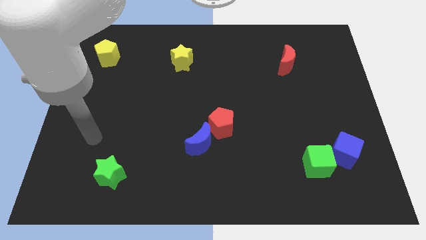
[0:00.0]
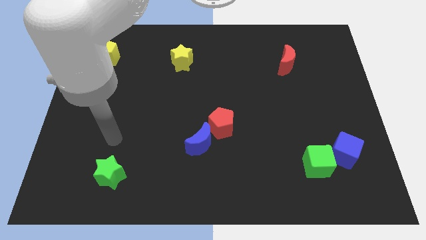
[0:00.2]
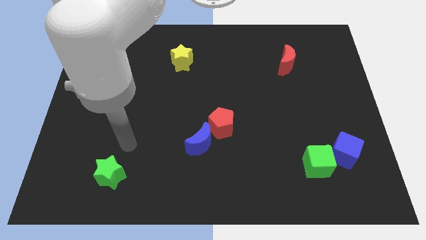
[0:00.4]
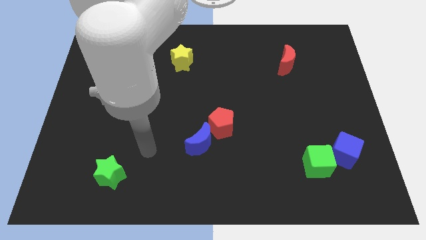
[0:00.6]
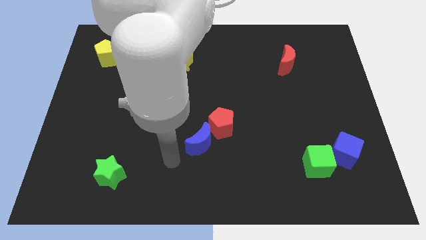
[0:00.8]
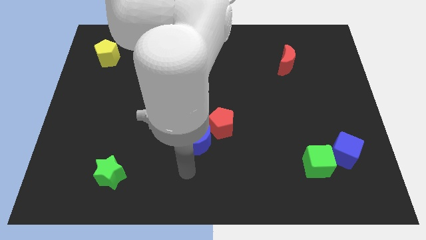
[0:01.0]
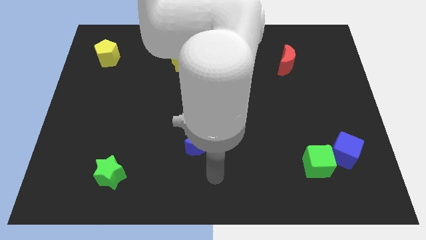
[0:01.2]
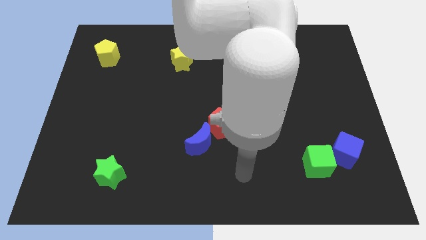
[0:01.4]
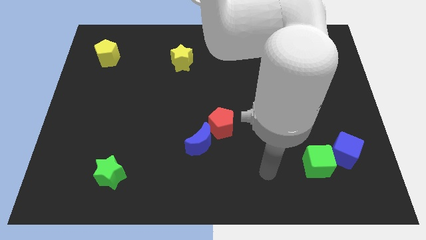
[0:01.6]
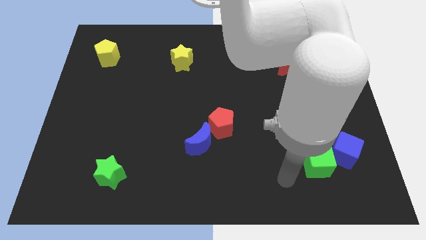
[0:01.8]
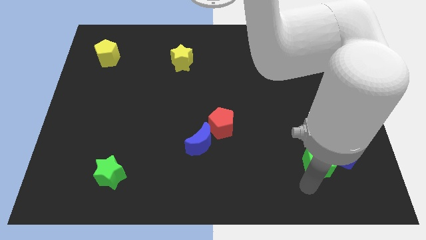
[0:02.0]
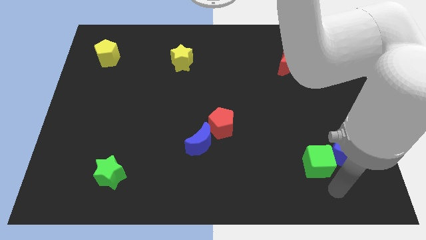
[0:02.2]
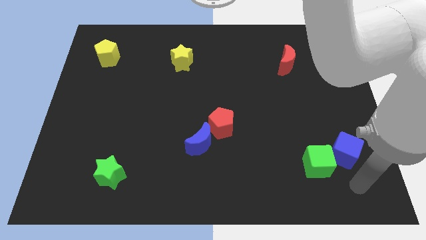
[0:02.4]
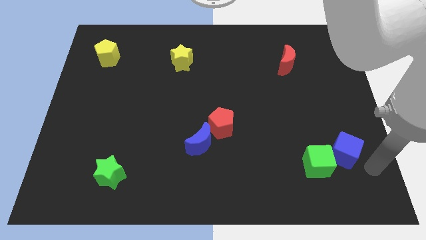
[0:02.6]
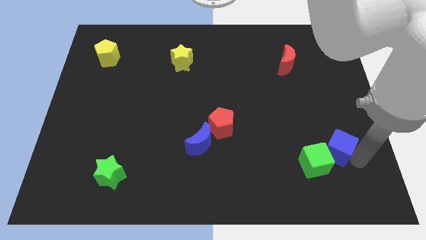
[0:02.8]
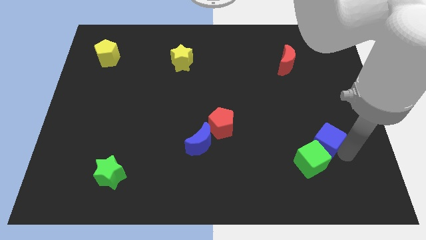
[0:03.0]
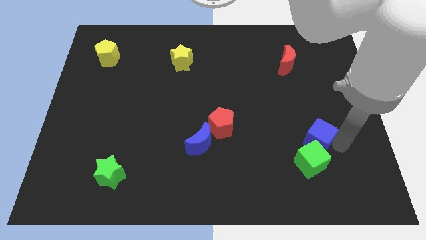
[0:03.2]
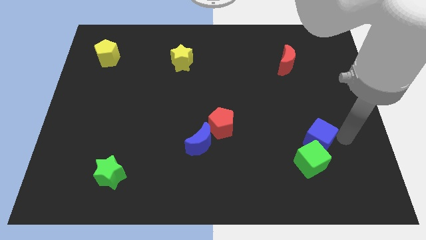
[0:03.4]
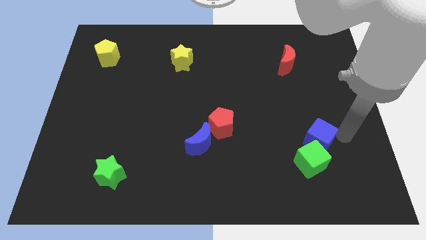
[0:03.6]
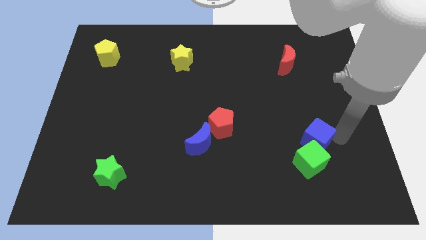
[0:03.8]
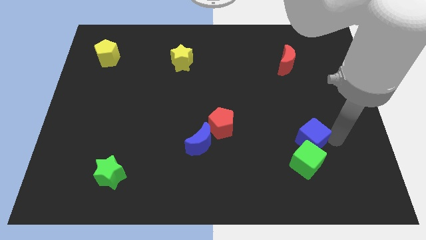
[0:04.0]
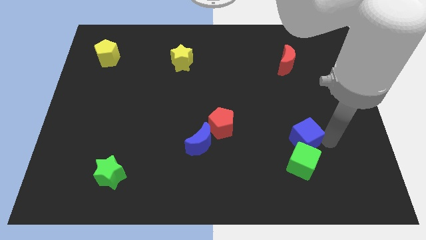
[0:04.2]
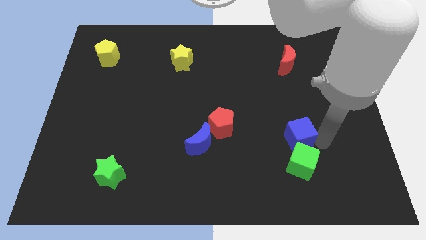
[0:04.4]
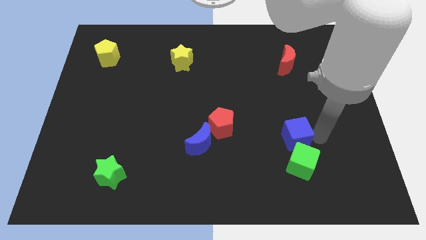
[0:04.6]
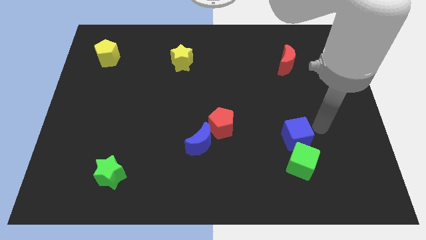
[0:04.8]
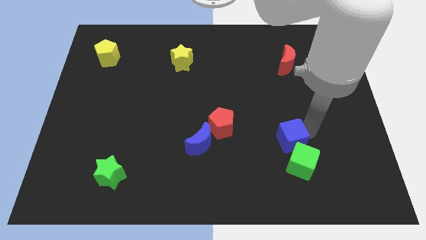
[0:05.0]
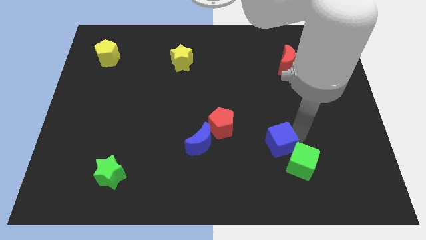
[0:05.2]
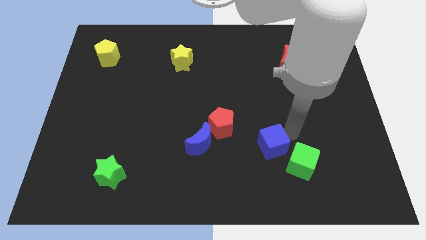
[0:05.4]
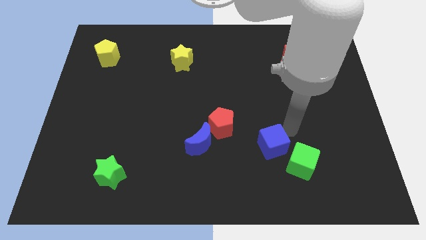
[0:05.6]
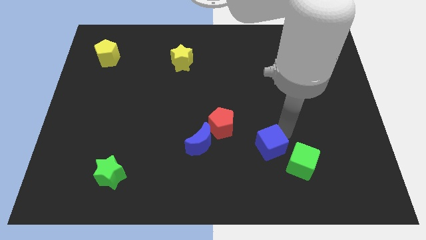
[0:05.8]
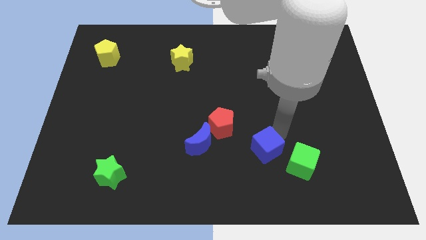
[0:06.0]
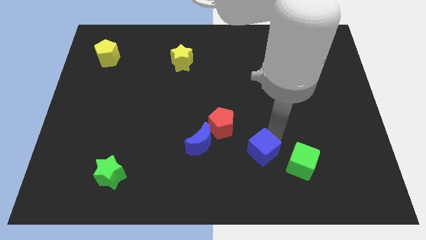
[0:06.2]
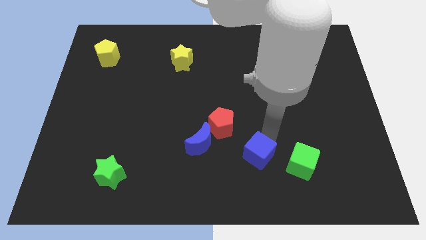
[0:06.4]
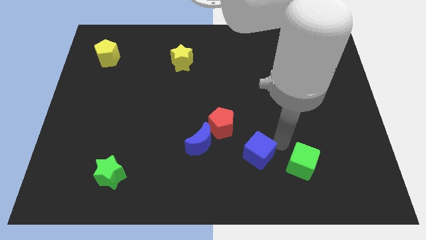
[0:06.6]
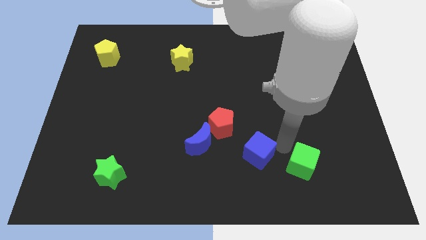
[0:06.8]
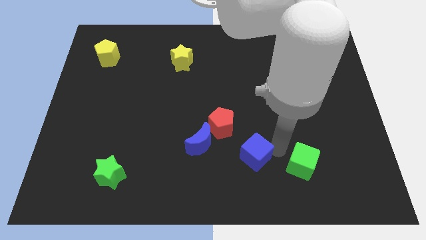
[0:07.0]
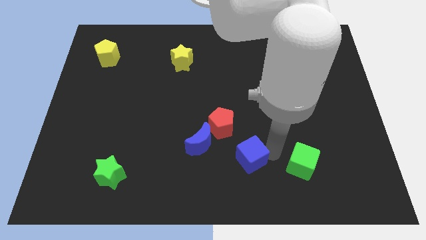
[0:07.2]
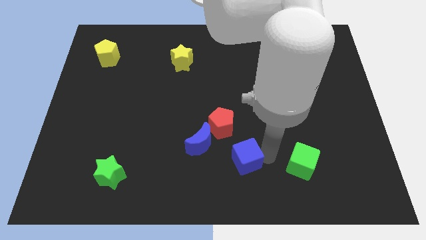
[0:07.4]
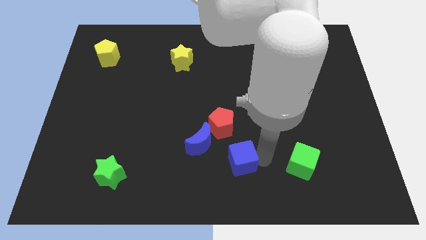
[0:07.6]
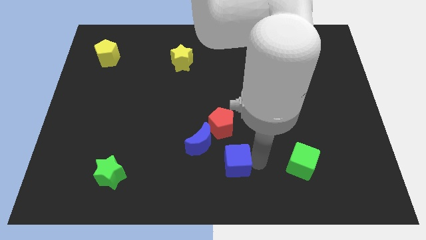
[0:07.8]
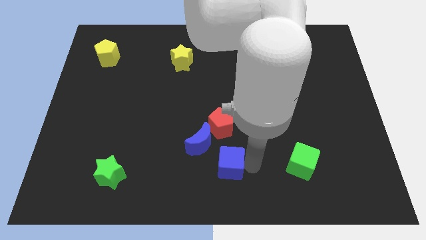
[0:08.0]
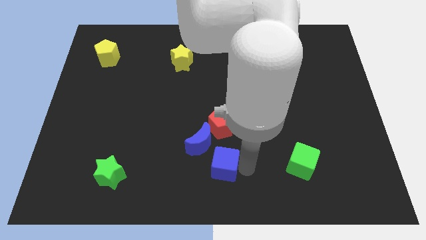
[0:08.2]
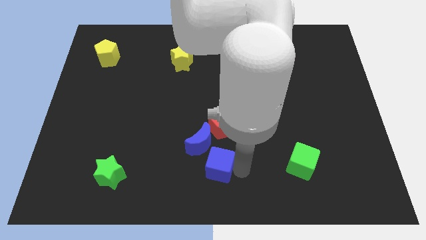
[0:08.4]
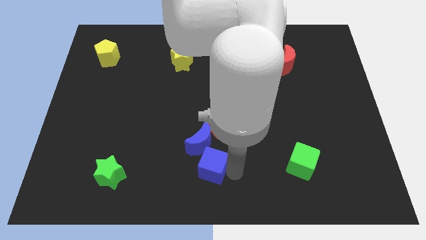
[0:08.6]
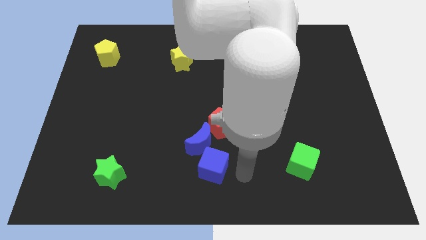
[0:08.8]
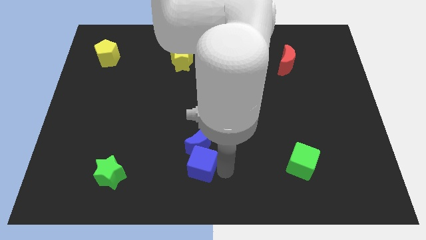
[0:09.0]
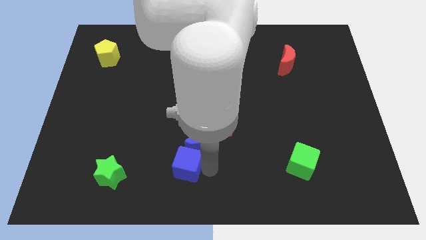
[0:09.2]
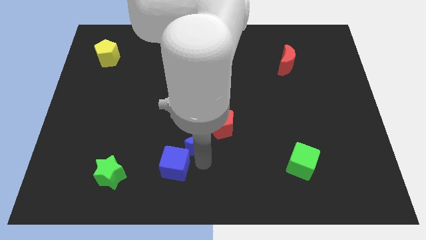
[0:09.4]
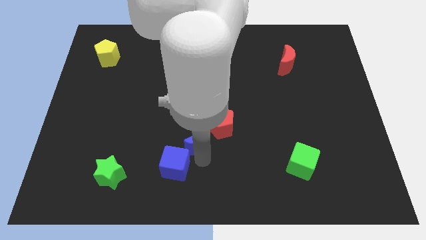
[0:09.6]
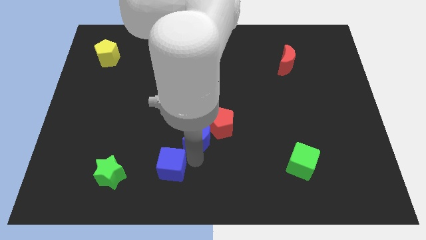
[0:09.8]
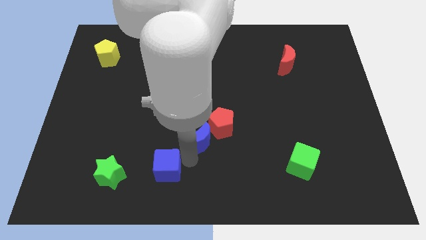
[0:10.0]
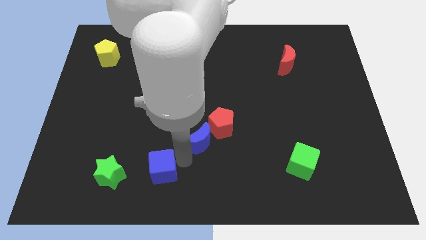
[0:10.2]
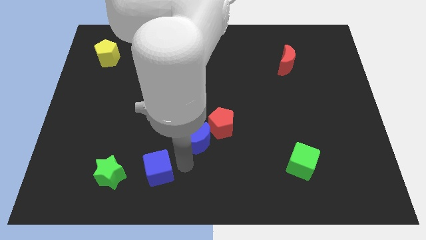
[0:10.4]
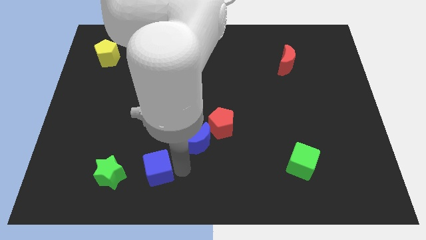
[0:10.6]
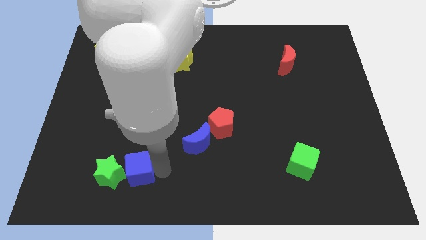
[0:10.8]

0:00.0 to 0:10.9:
push the blue cube to the green star
